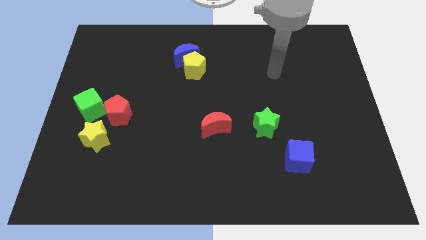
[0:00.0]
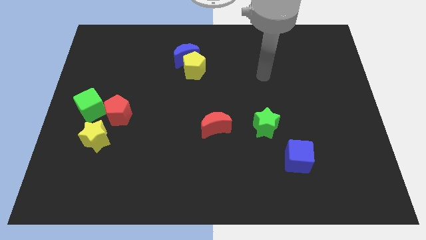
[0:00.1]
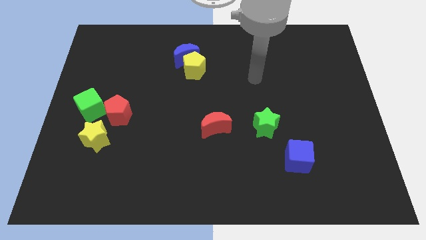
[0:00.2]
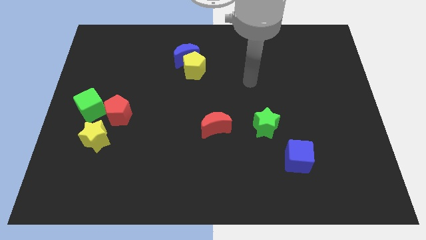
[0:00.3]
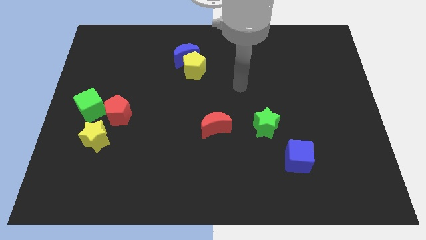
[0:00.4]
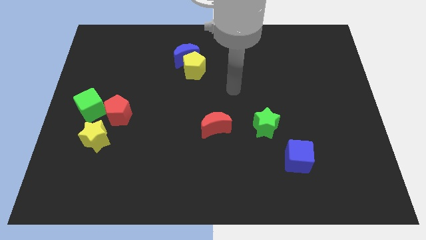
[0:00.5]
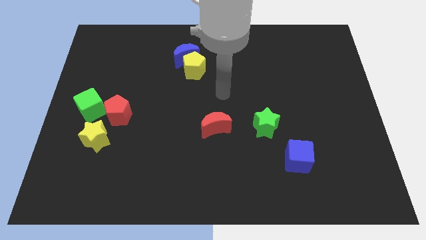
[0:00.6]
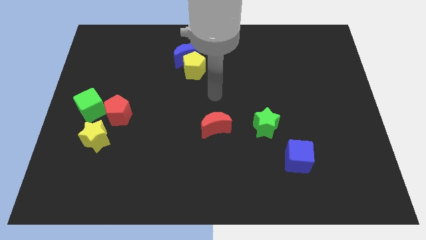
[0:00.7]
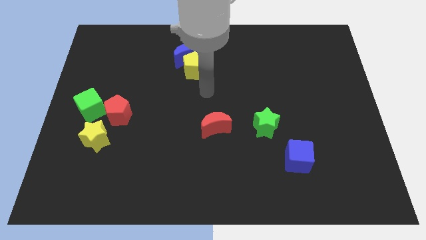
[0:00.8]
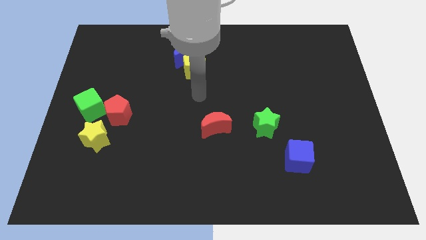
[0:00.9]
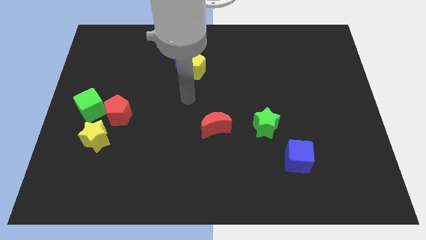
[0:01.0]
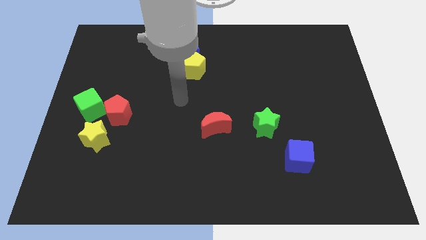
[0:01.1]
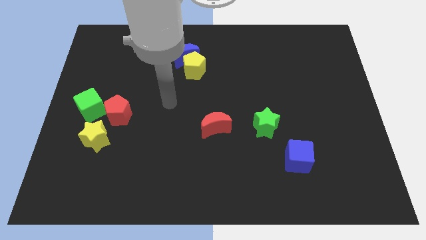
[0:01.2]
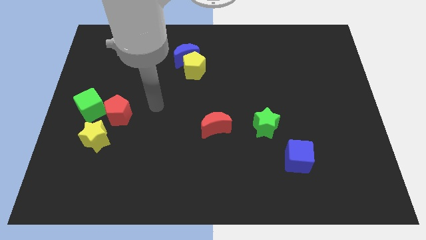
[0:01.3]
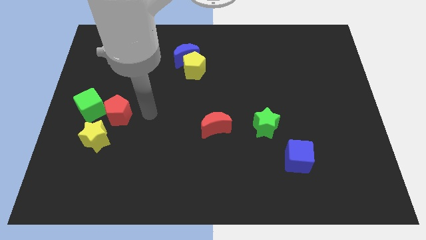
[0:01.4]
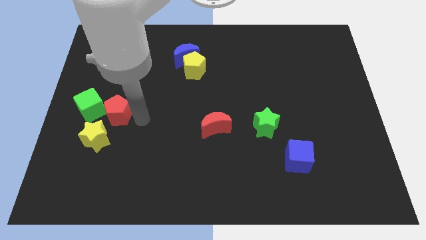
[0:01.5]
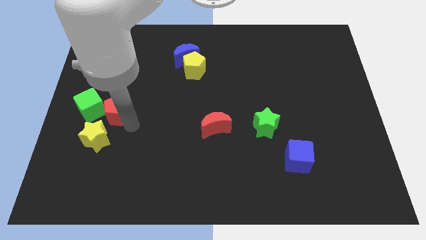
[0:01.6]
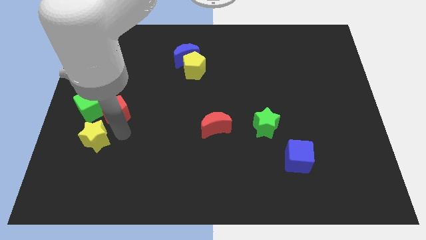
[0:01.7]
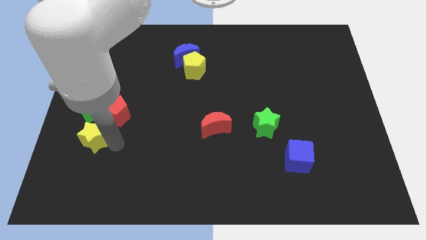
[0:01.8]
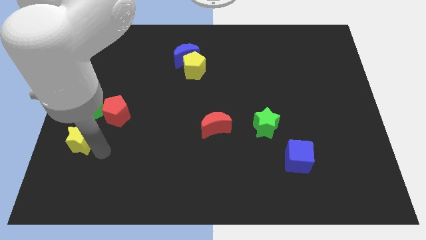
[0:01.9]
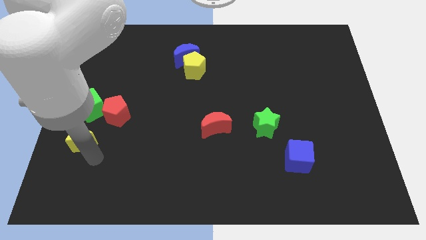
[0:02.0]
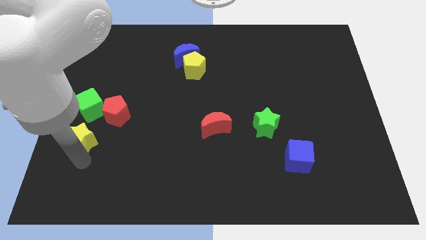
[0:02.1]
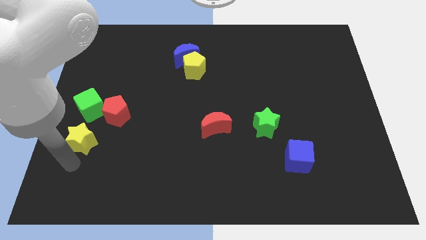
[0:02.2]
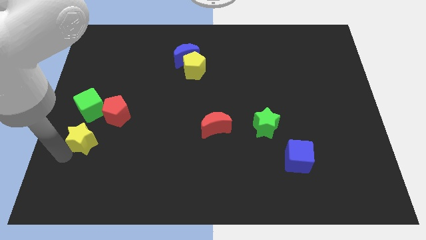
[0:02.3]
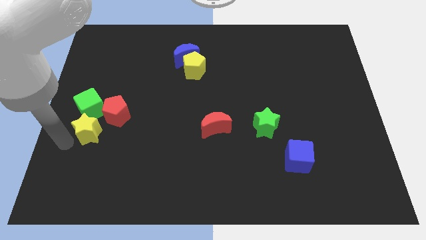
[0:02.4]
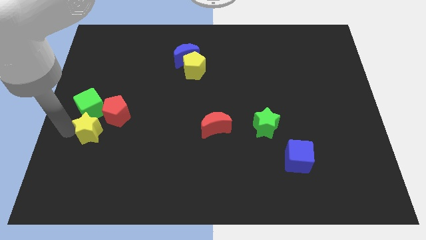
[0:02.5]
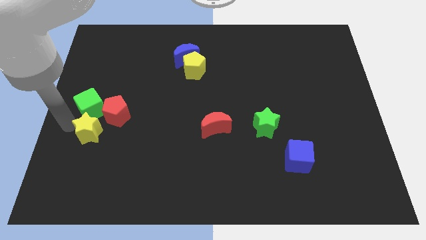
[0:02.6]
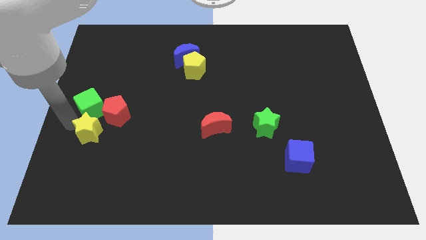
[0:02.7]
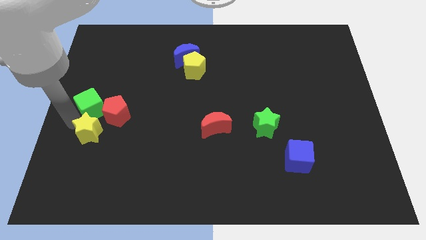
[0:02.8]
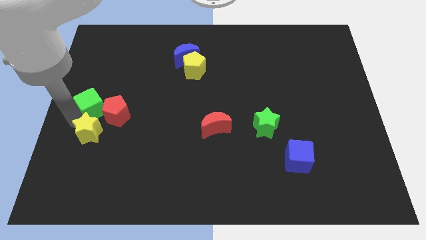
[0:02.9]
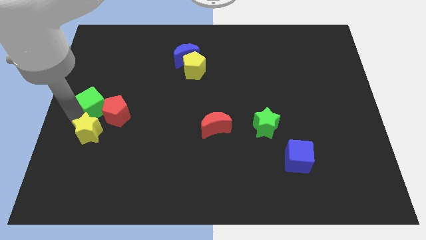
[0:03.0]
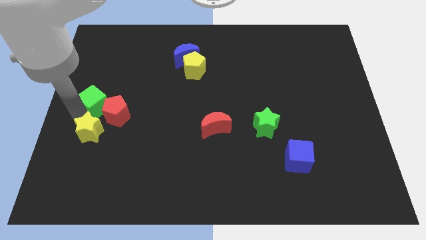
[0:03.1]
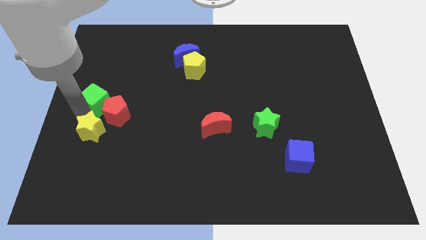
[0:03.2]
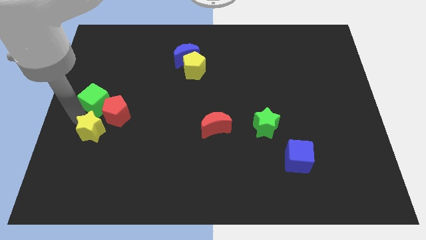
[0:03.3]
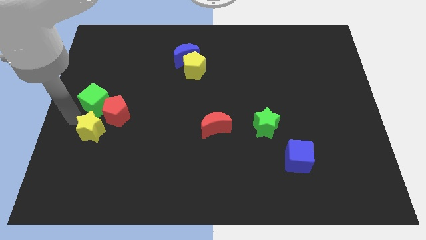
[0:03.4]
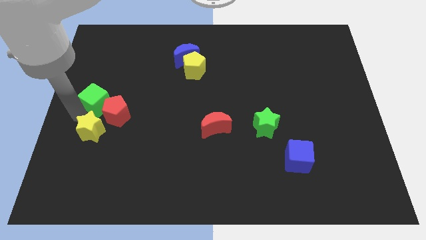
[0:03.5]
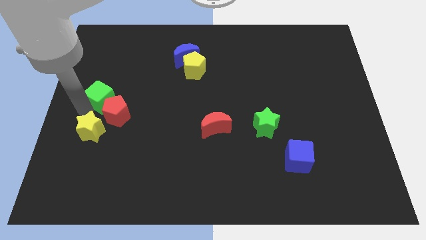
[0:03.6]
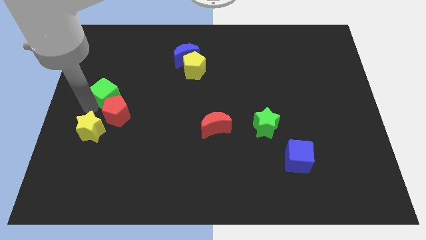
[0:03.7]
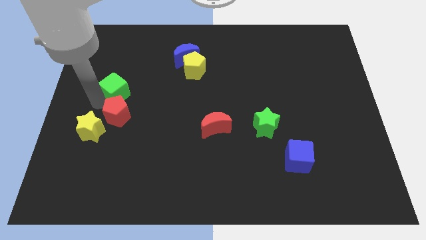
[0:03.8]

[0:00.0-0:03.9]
push the green cube up and to the right a little bit

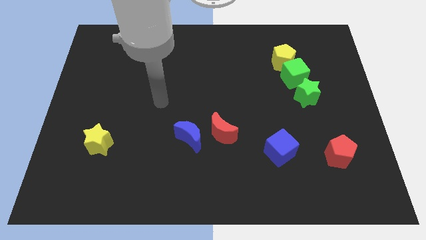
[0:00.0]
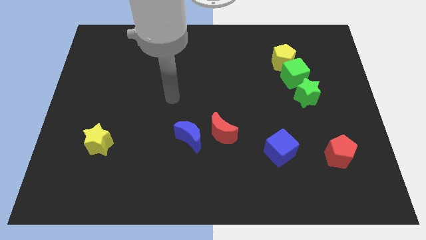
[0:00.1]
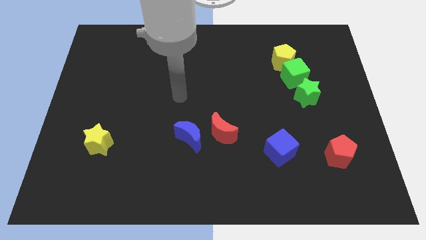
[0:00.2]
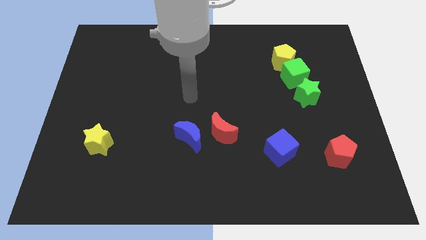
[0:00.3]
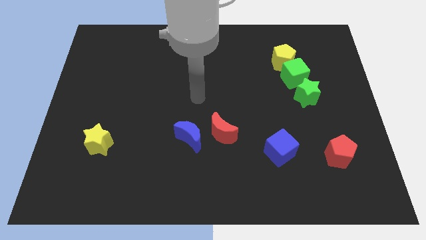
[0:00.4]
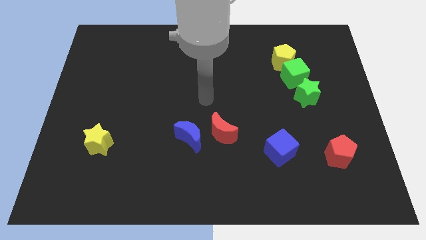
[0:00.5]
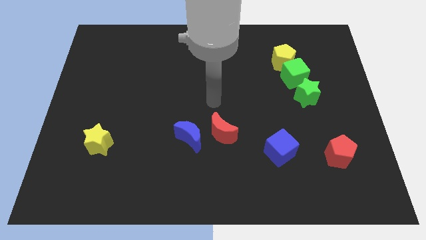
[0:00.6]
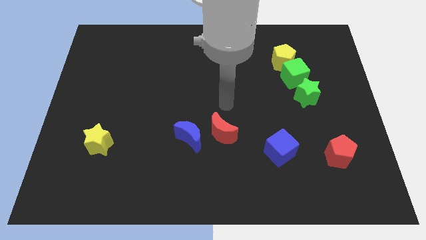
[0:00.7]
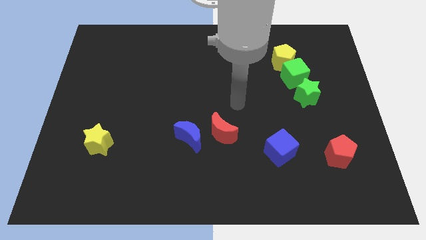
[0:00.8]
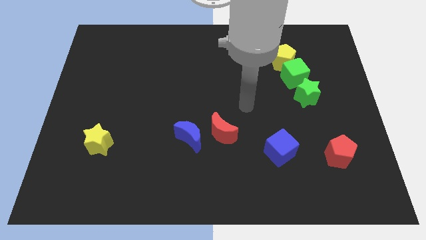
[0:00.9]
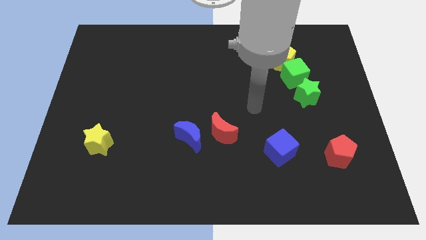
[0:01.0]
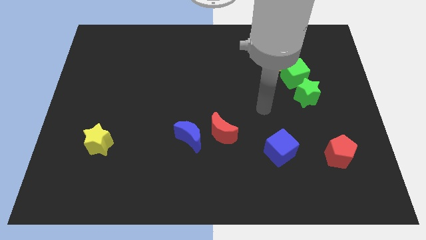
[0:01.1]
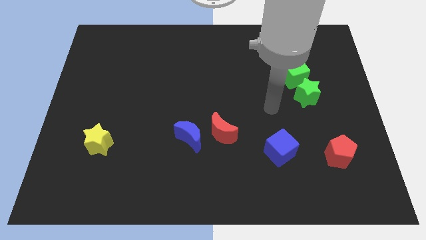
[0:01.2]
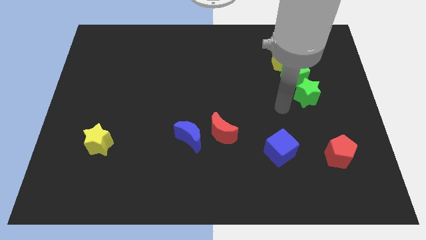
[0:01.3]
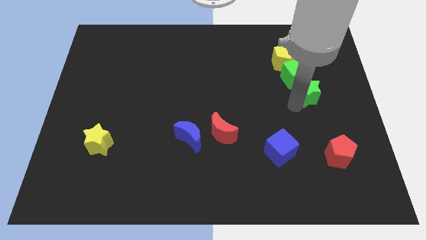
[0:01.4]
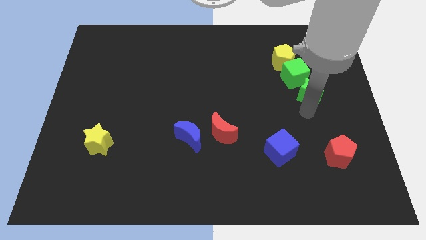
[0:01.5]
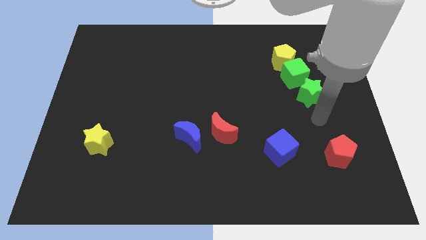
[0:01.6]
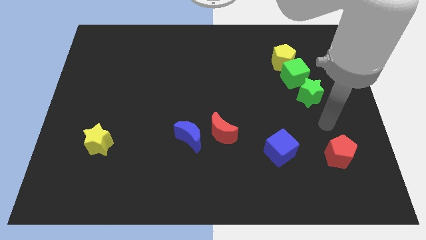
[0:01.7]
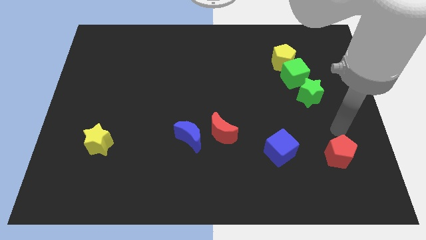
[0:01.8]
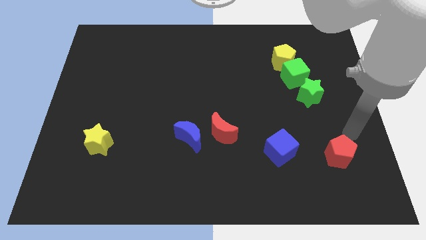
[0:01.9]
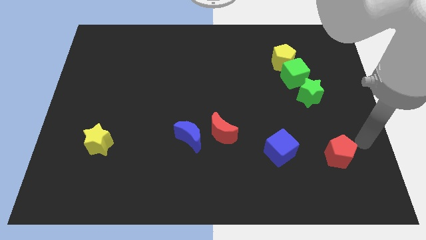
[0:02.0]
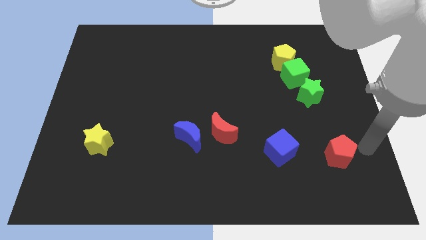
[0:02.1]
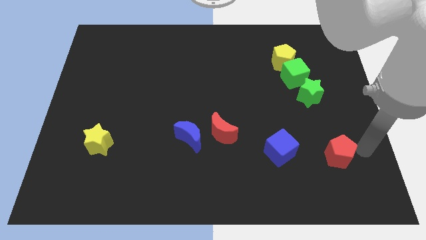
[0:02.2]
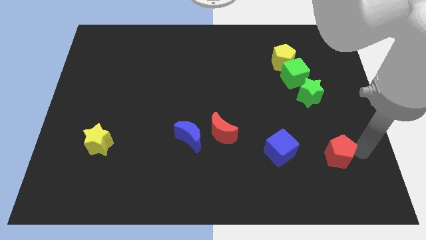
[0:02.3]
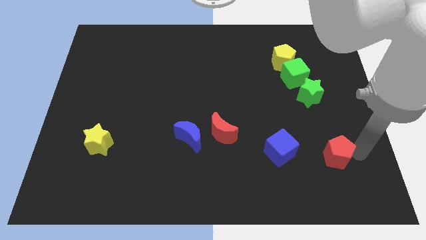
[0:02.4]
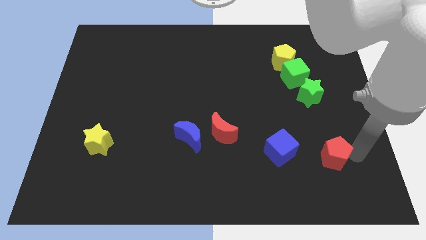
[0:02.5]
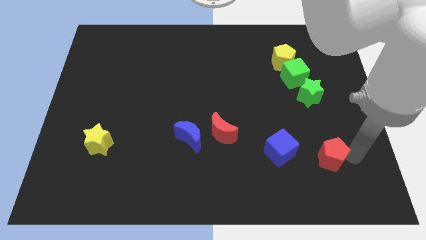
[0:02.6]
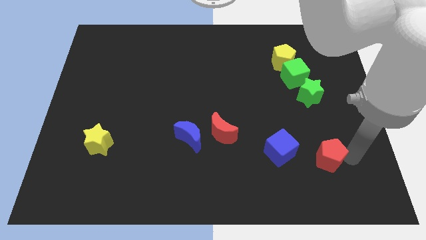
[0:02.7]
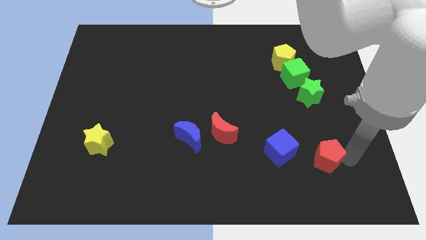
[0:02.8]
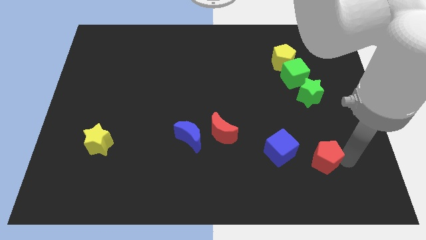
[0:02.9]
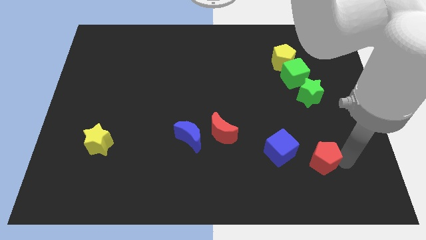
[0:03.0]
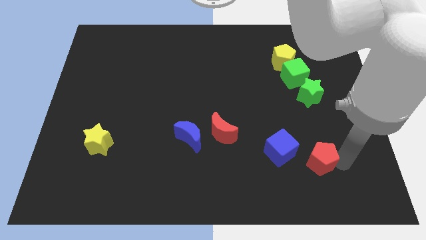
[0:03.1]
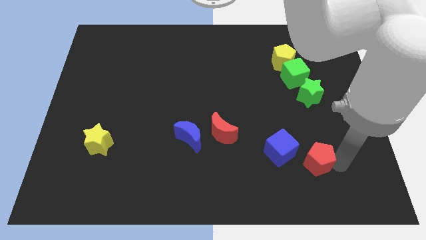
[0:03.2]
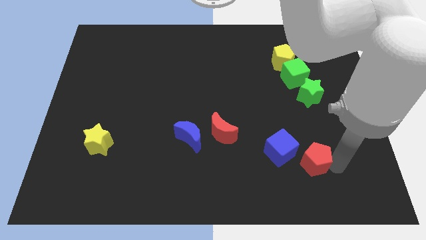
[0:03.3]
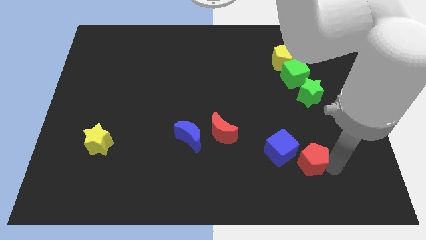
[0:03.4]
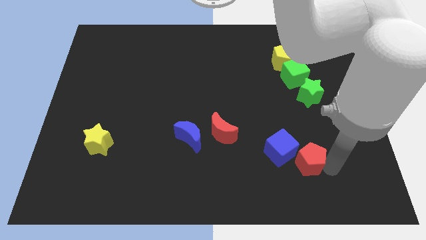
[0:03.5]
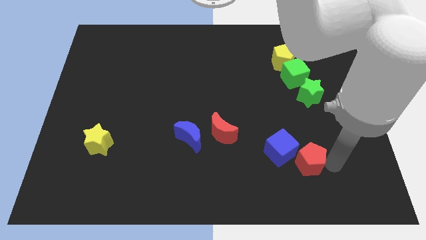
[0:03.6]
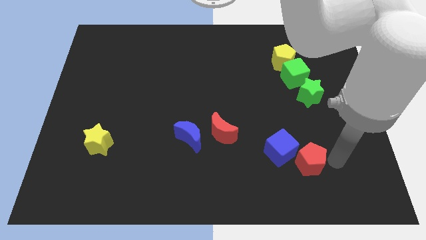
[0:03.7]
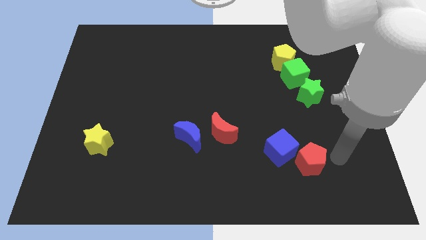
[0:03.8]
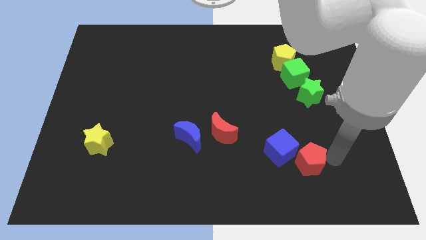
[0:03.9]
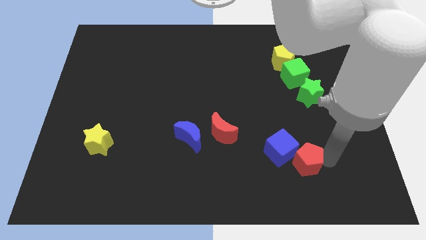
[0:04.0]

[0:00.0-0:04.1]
slide the red pentagon to the left a bit

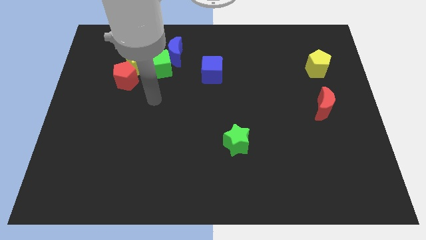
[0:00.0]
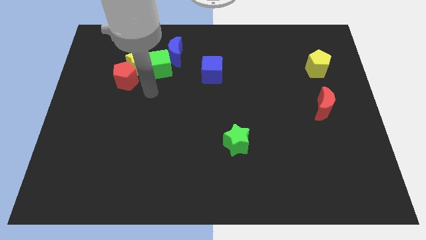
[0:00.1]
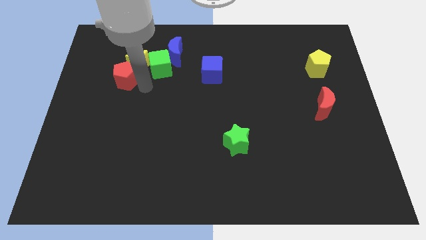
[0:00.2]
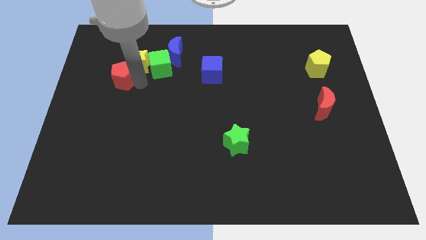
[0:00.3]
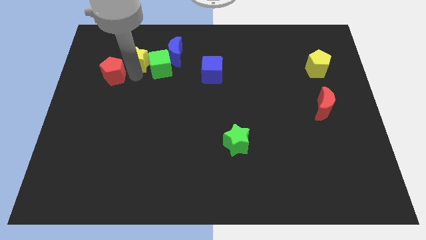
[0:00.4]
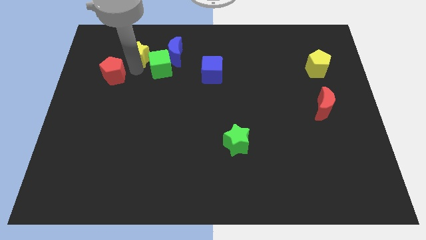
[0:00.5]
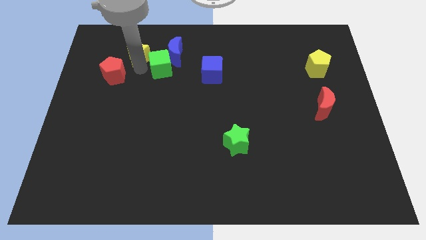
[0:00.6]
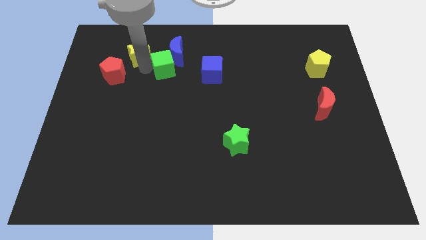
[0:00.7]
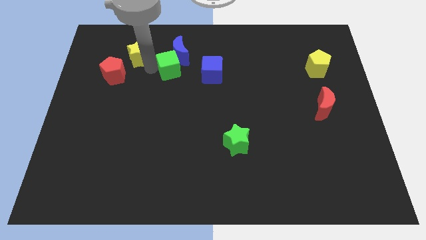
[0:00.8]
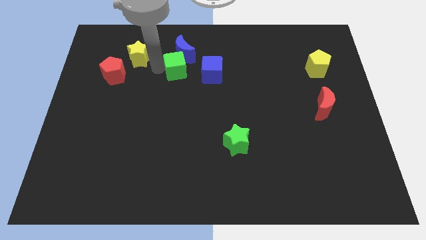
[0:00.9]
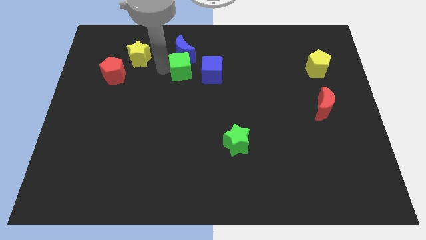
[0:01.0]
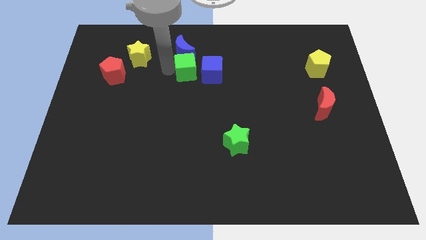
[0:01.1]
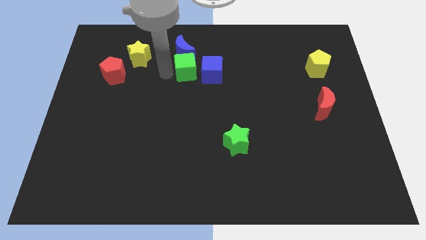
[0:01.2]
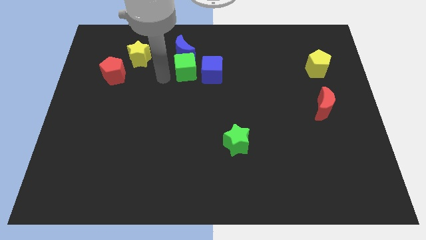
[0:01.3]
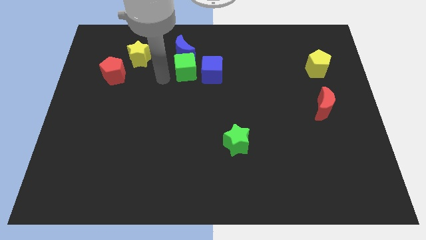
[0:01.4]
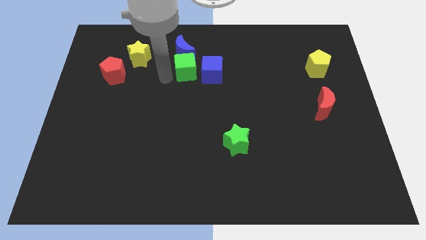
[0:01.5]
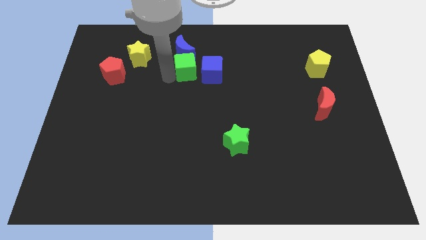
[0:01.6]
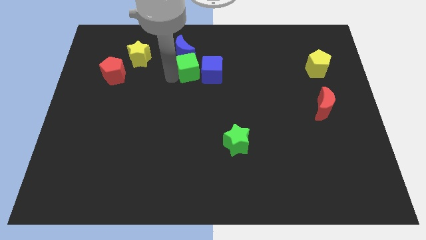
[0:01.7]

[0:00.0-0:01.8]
push the green cube right a little
